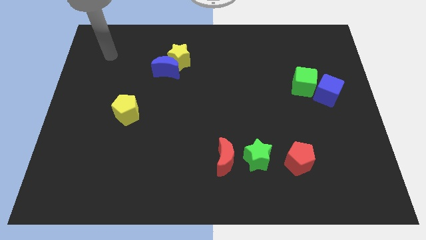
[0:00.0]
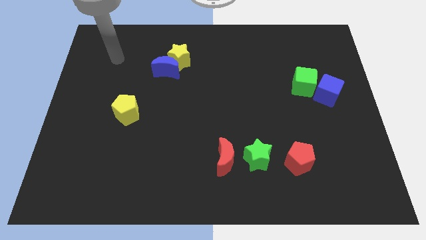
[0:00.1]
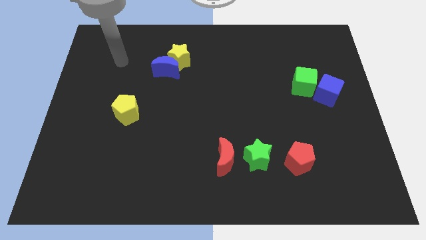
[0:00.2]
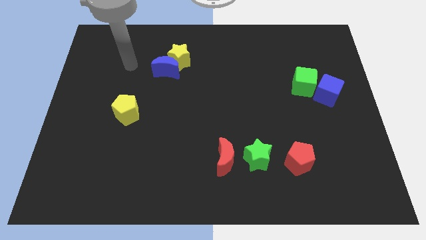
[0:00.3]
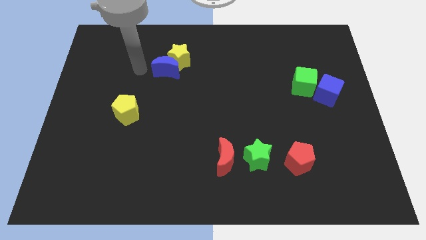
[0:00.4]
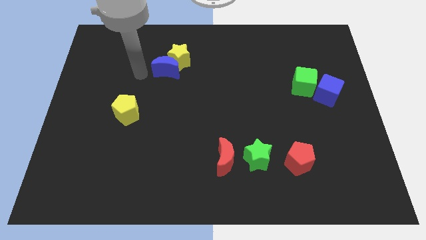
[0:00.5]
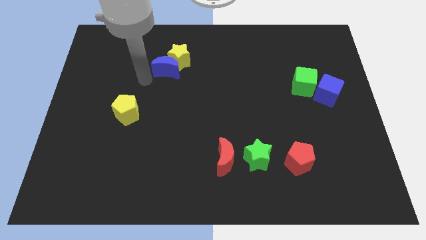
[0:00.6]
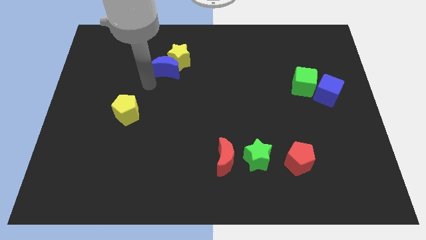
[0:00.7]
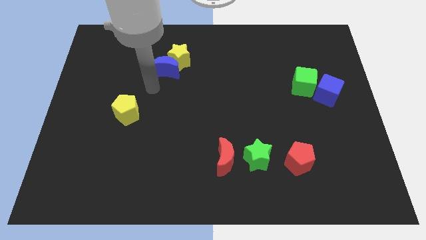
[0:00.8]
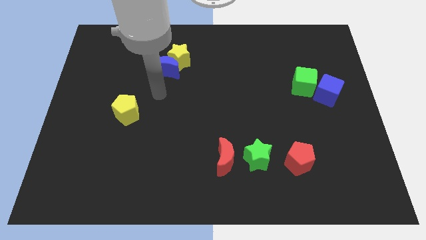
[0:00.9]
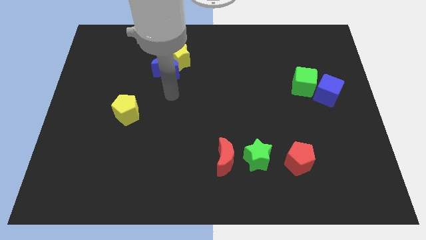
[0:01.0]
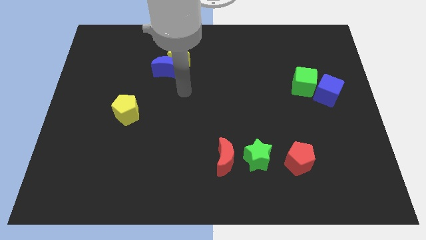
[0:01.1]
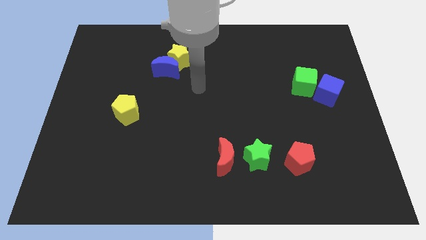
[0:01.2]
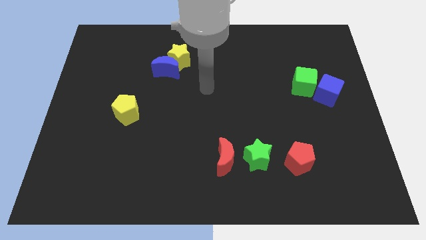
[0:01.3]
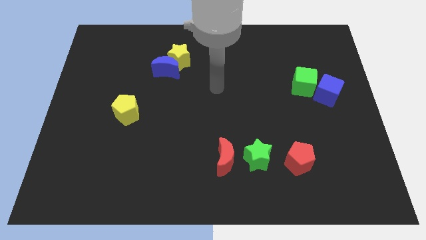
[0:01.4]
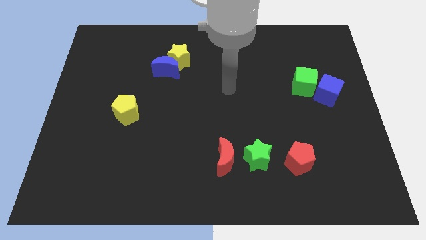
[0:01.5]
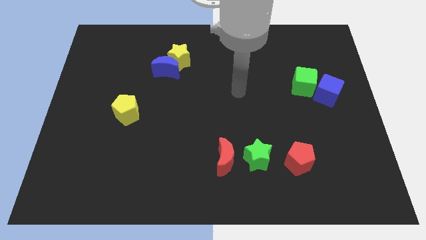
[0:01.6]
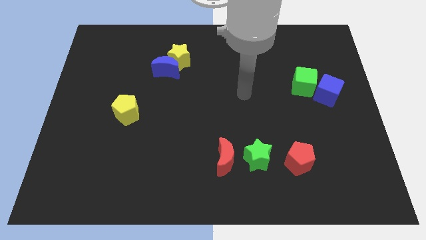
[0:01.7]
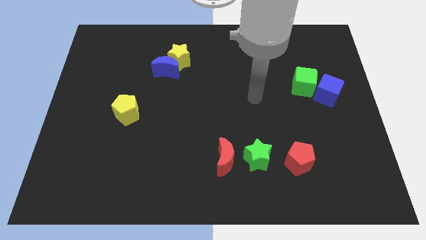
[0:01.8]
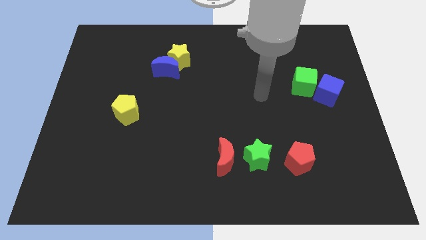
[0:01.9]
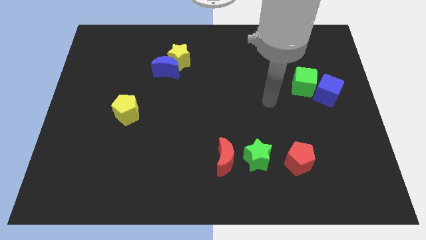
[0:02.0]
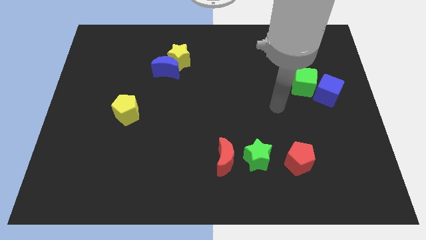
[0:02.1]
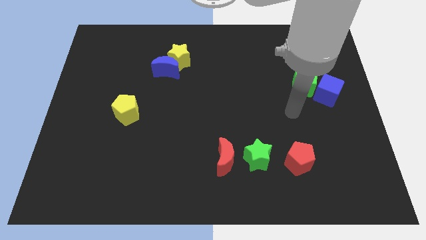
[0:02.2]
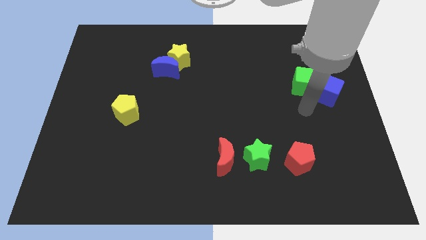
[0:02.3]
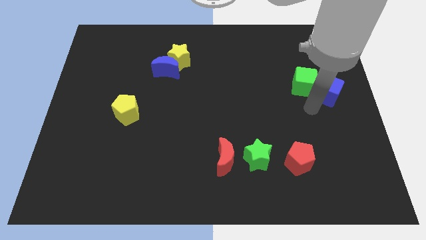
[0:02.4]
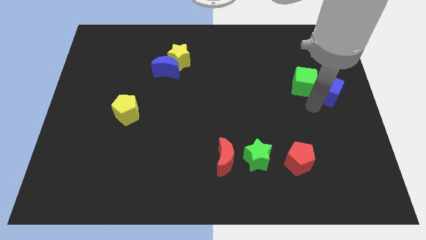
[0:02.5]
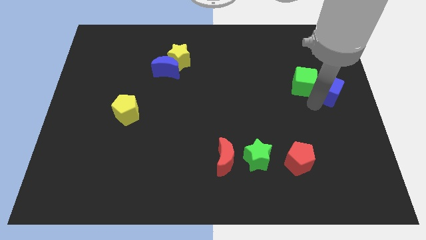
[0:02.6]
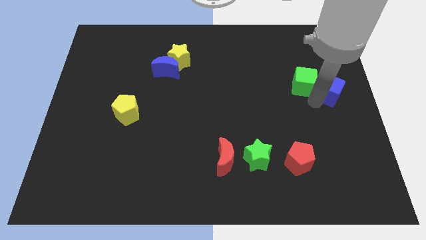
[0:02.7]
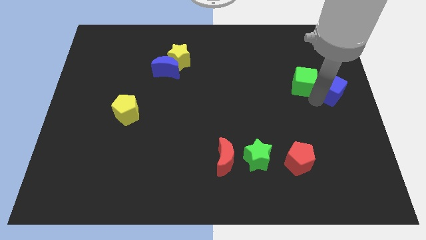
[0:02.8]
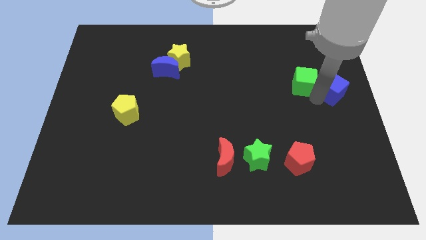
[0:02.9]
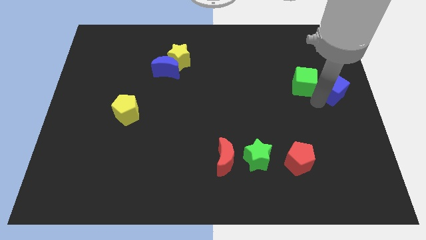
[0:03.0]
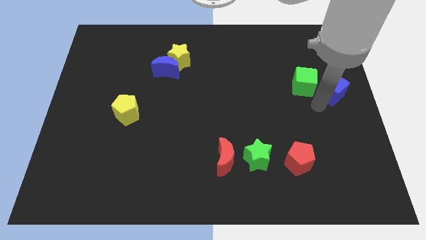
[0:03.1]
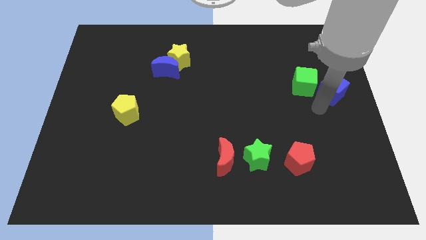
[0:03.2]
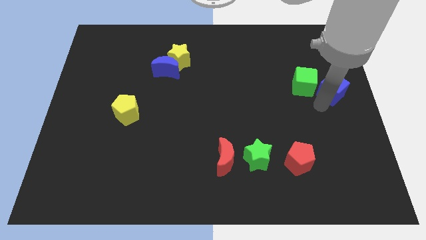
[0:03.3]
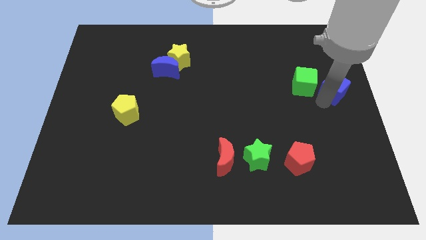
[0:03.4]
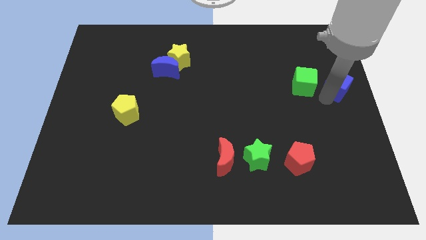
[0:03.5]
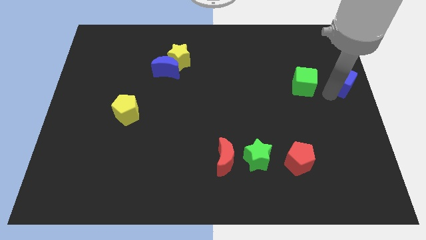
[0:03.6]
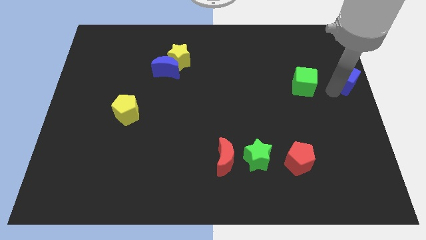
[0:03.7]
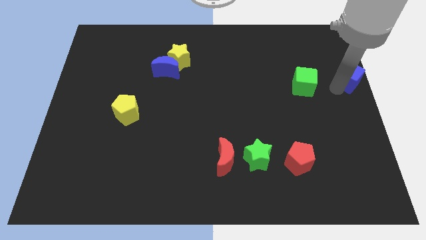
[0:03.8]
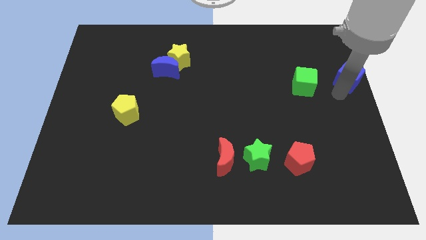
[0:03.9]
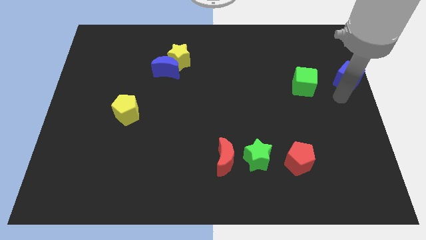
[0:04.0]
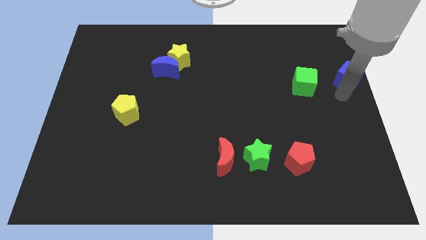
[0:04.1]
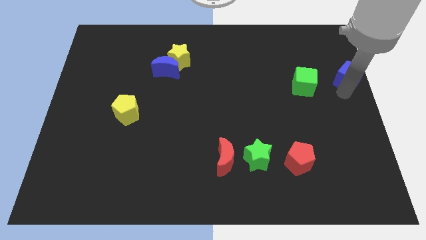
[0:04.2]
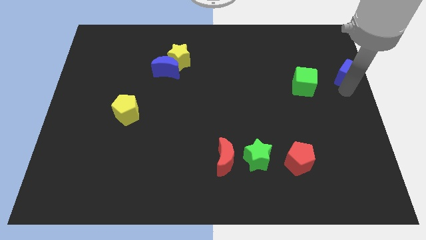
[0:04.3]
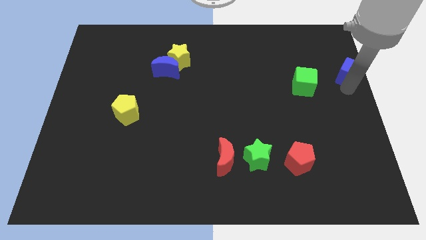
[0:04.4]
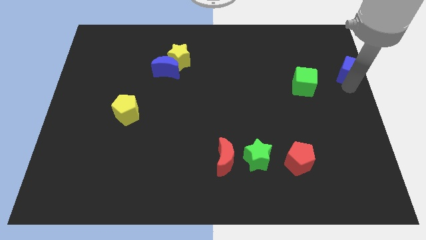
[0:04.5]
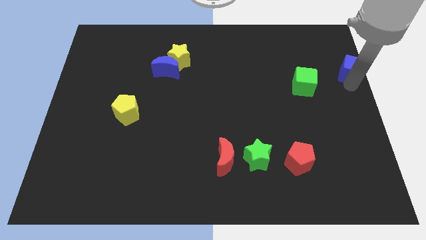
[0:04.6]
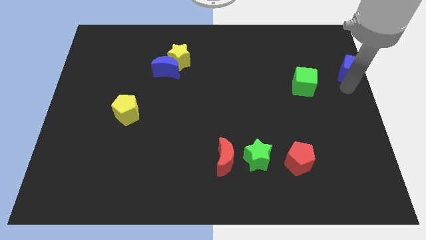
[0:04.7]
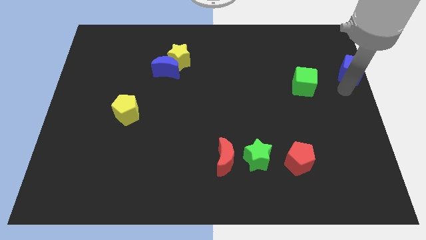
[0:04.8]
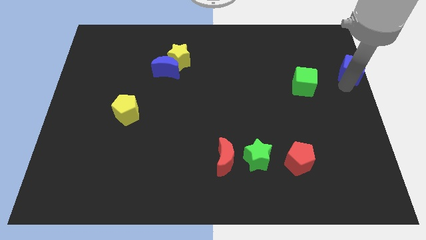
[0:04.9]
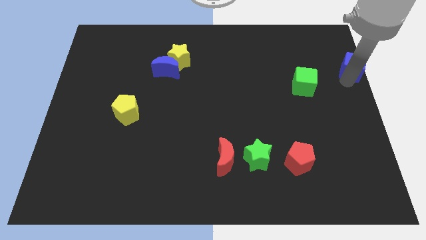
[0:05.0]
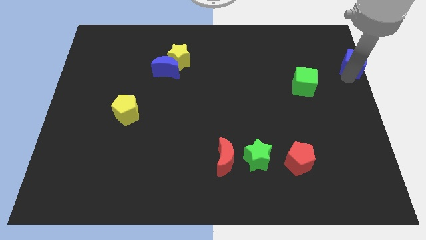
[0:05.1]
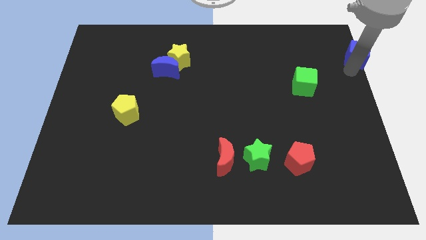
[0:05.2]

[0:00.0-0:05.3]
move the blue cube to the top right

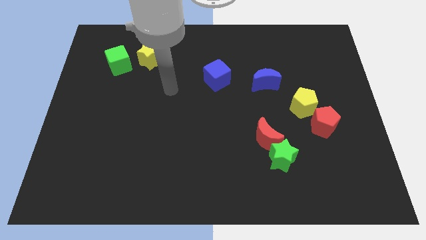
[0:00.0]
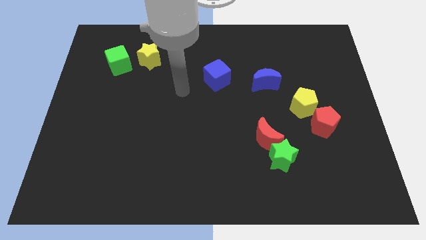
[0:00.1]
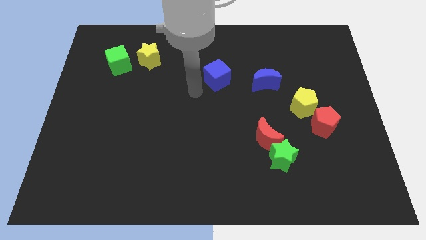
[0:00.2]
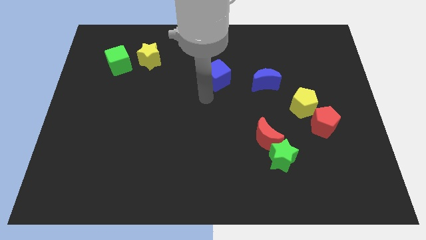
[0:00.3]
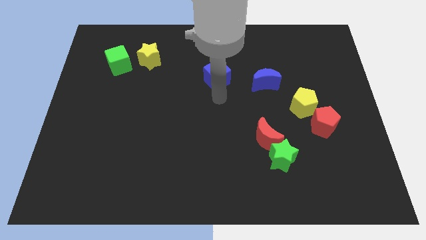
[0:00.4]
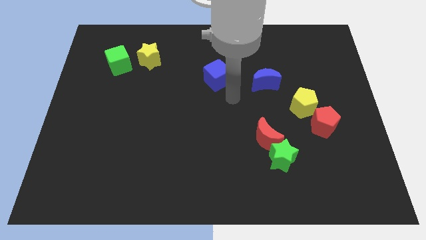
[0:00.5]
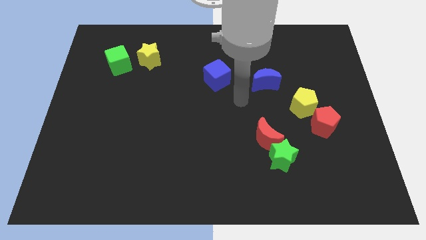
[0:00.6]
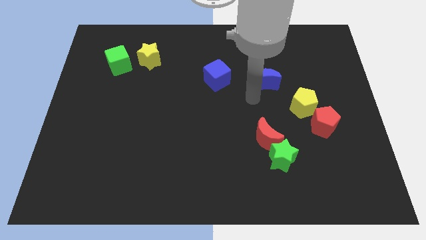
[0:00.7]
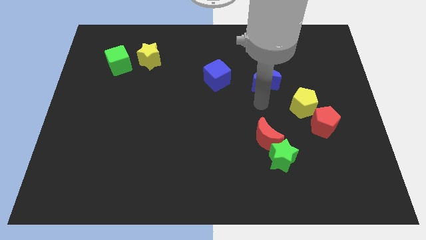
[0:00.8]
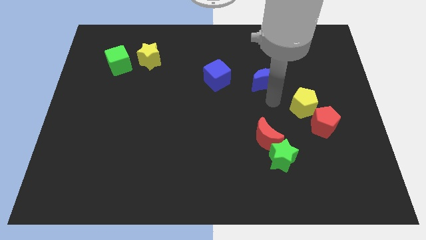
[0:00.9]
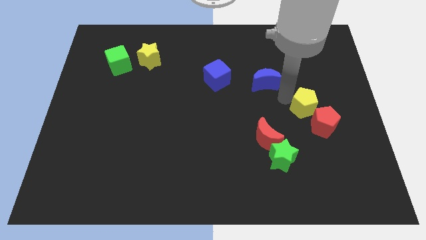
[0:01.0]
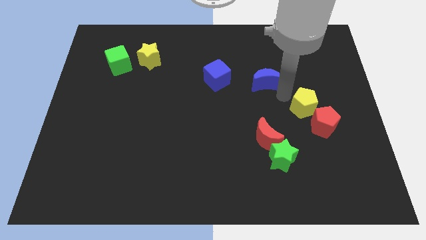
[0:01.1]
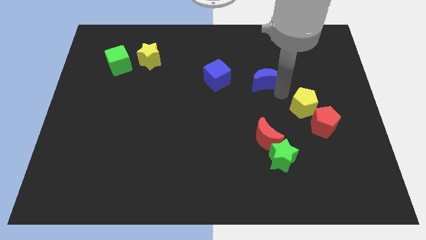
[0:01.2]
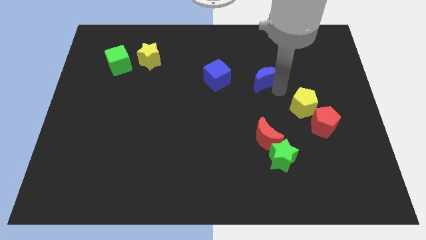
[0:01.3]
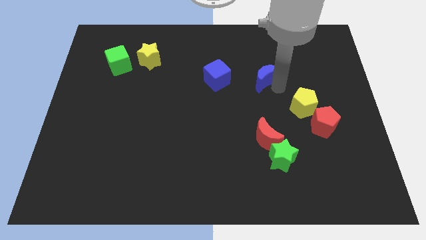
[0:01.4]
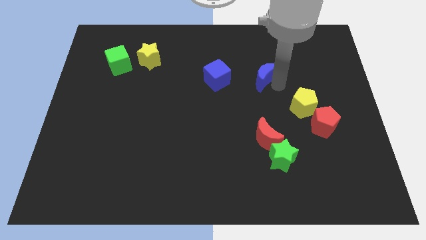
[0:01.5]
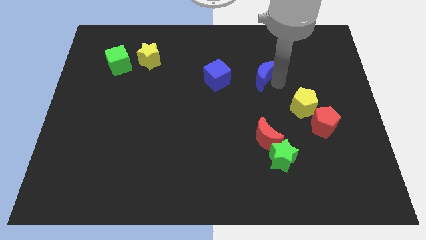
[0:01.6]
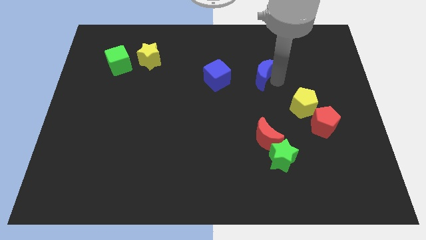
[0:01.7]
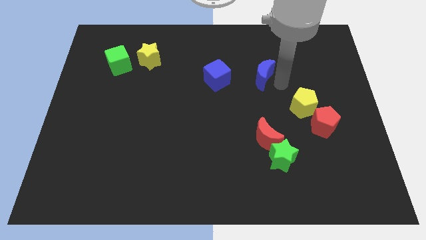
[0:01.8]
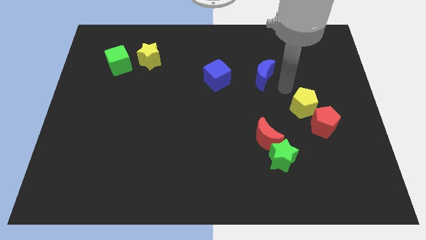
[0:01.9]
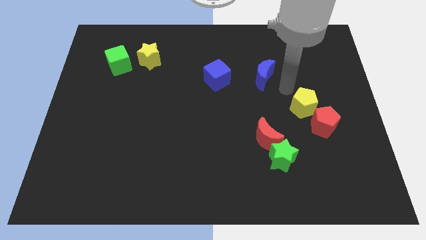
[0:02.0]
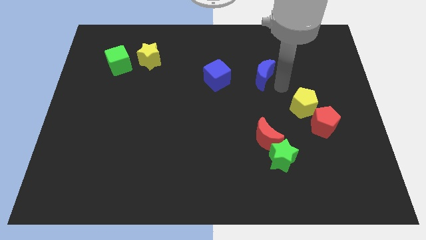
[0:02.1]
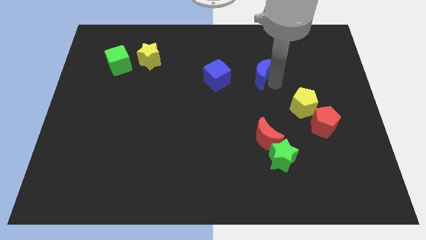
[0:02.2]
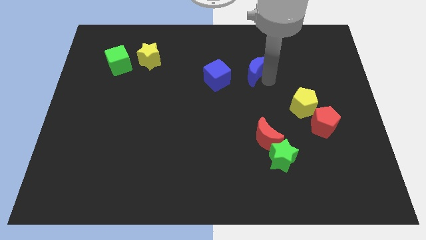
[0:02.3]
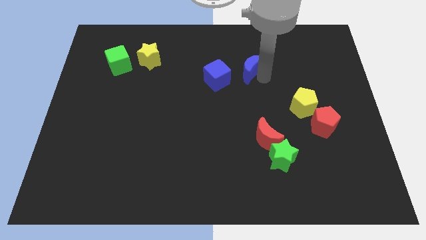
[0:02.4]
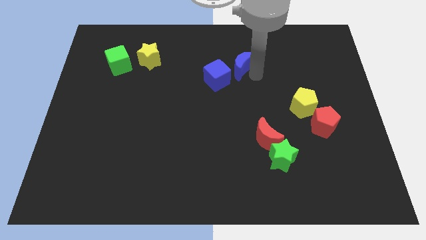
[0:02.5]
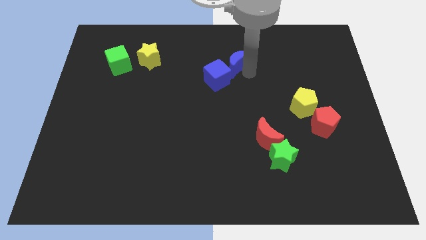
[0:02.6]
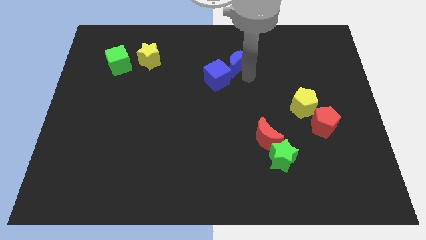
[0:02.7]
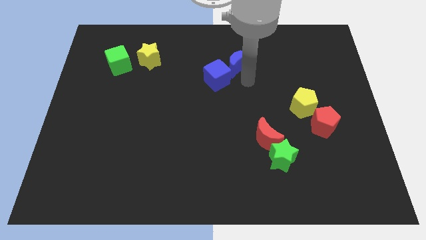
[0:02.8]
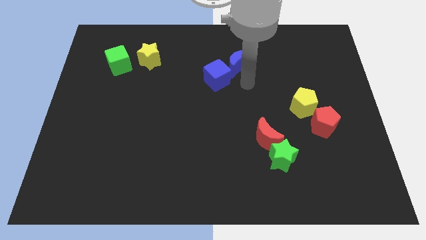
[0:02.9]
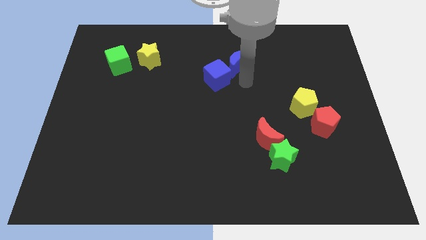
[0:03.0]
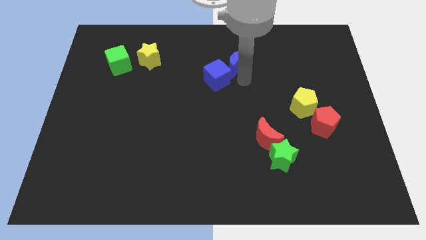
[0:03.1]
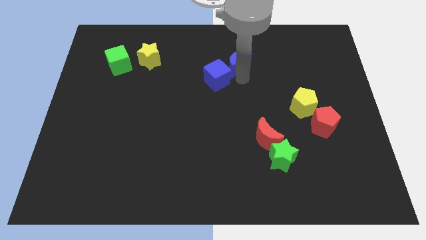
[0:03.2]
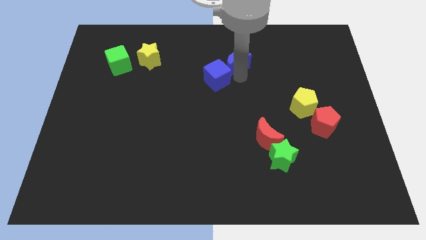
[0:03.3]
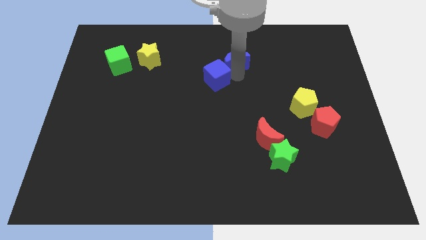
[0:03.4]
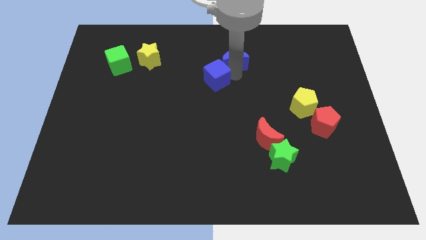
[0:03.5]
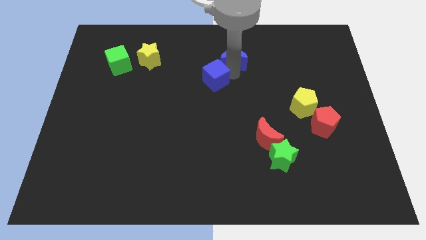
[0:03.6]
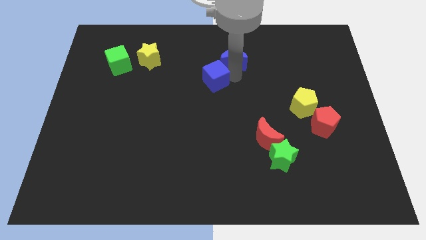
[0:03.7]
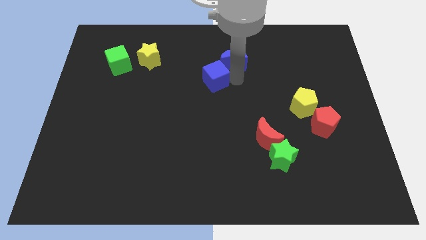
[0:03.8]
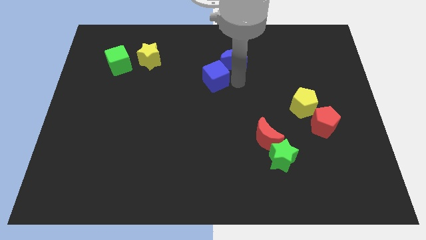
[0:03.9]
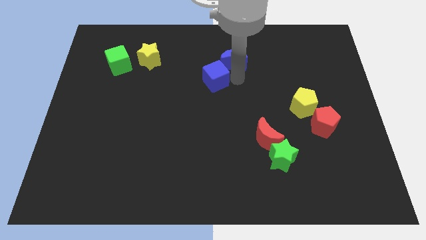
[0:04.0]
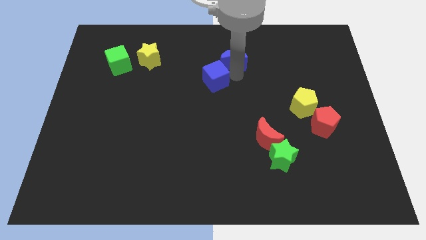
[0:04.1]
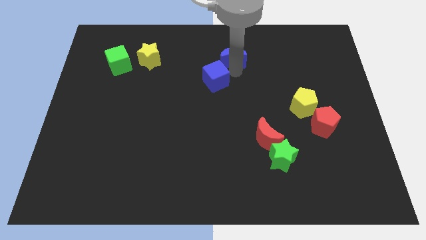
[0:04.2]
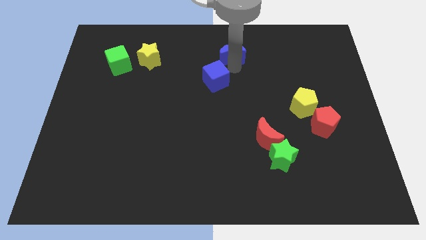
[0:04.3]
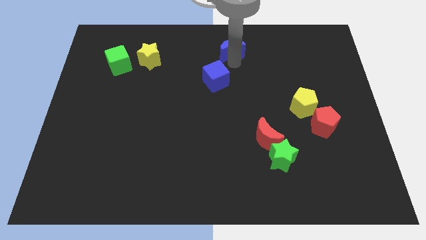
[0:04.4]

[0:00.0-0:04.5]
slide the blue moon to the top side
